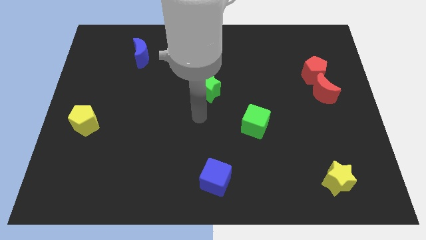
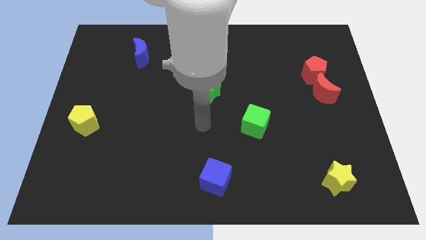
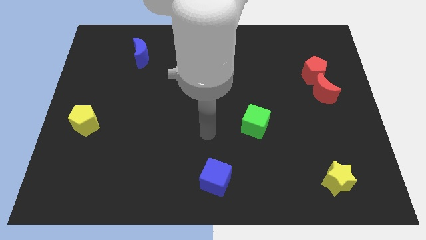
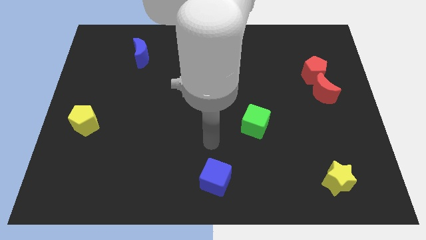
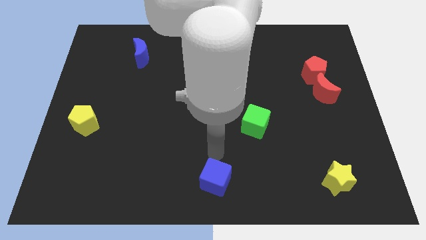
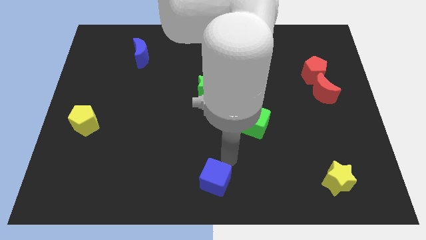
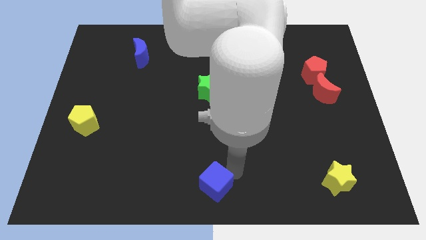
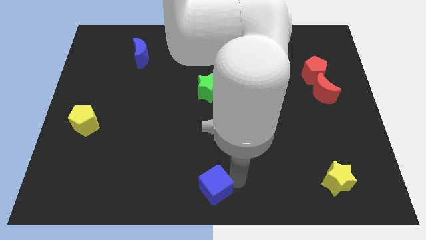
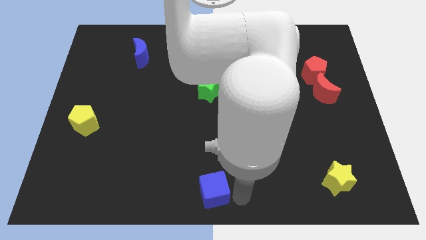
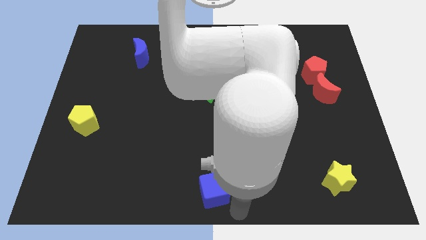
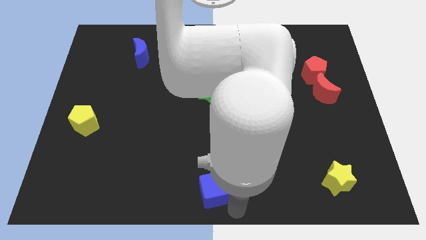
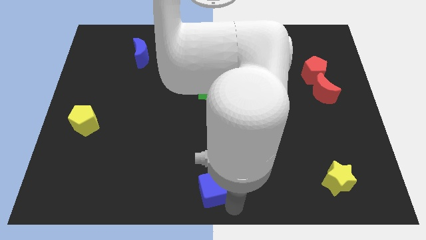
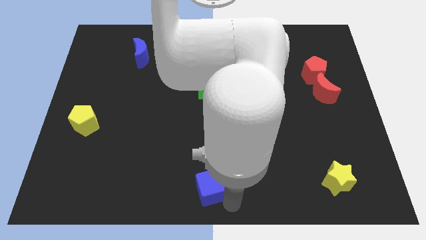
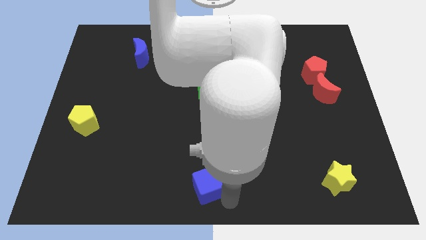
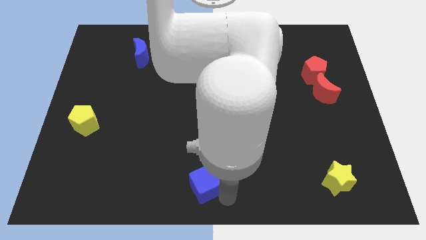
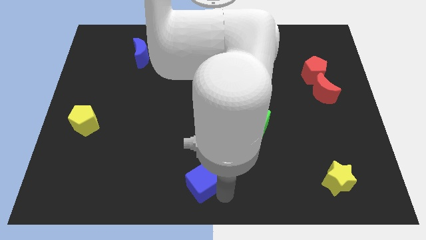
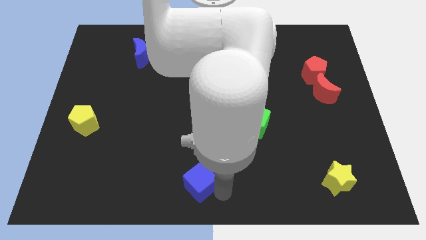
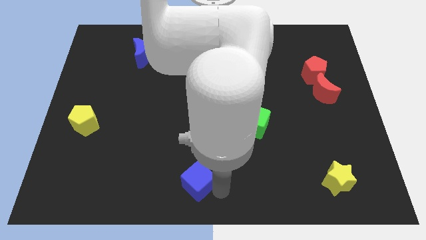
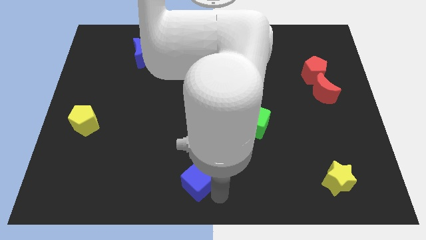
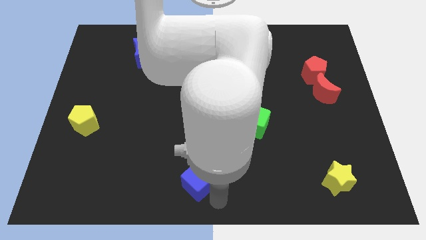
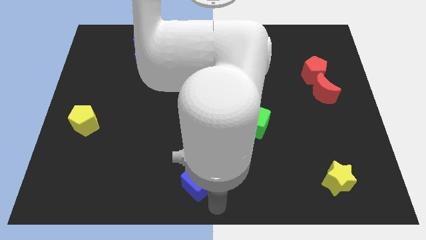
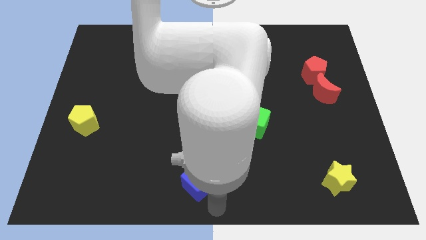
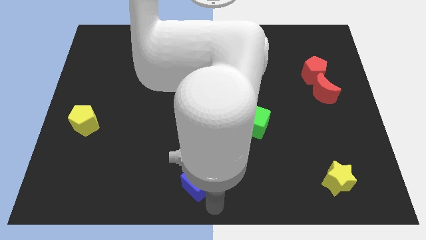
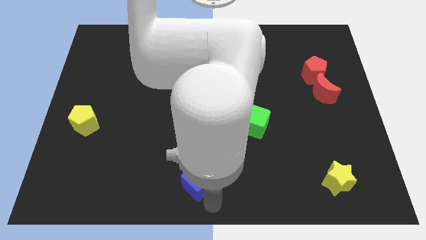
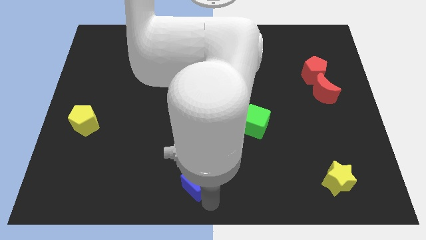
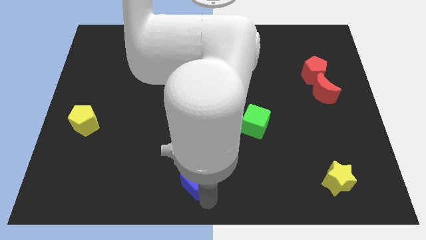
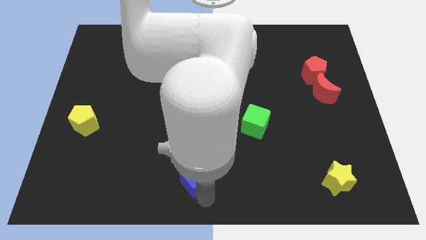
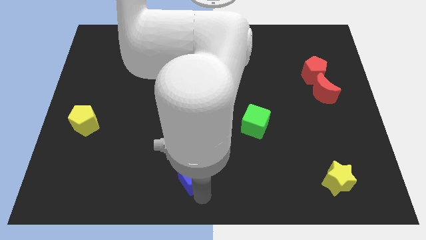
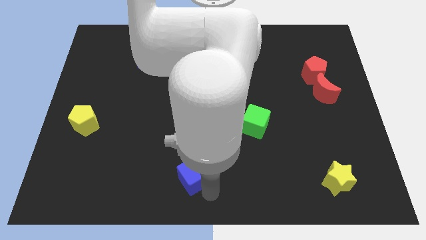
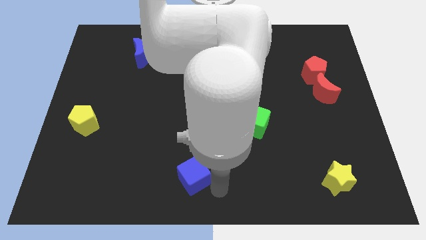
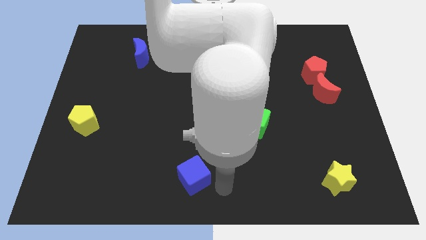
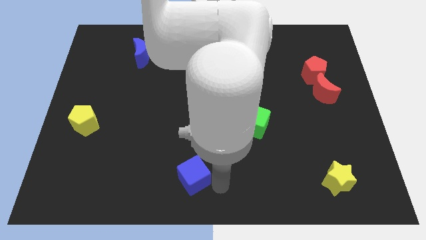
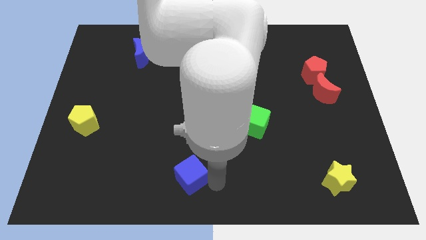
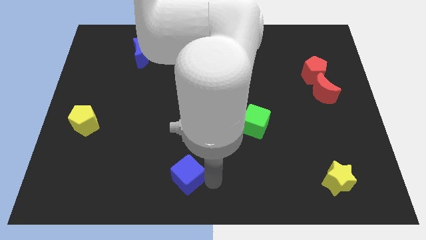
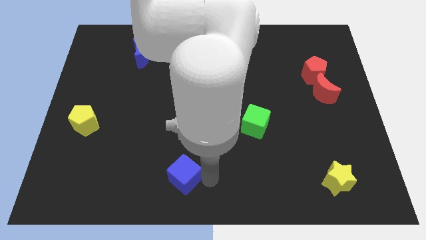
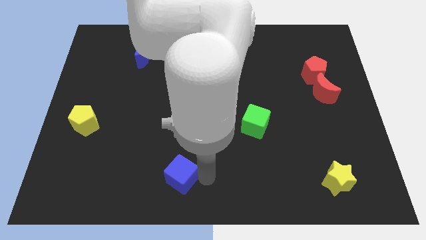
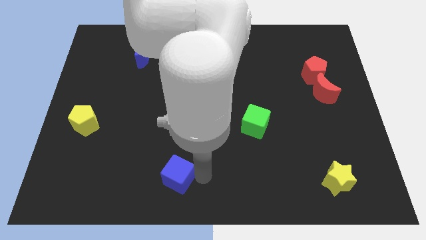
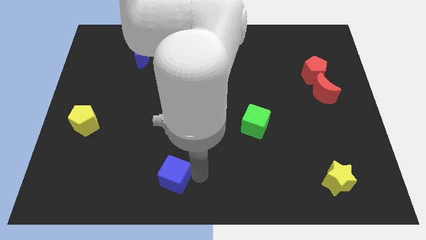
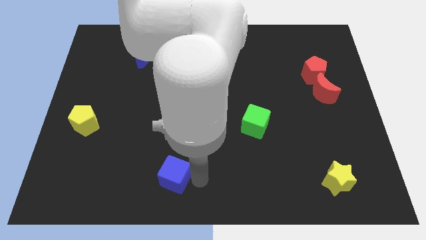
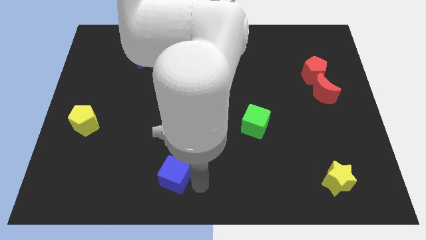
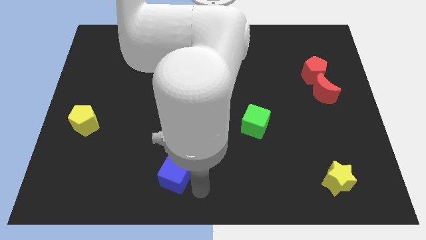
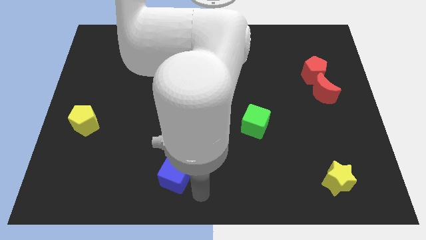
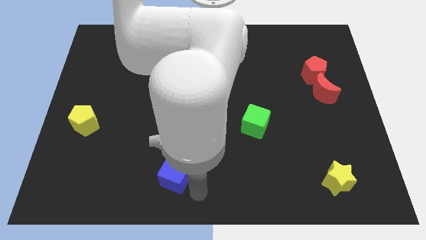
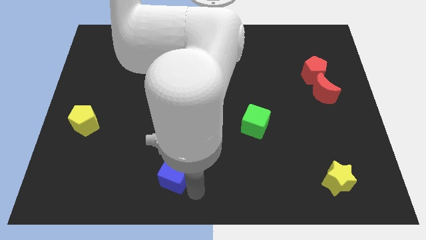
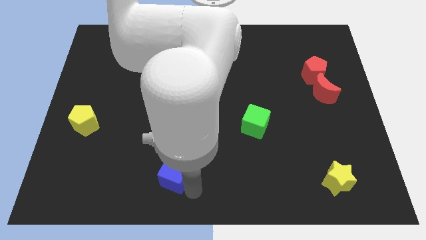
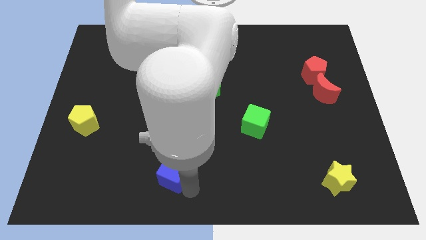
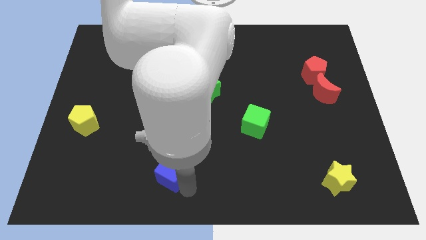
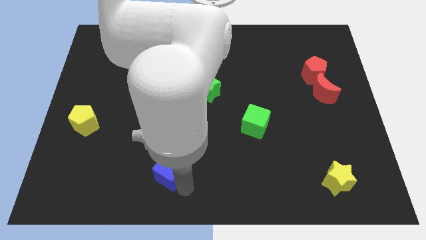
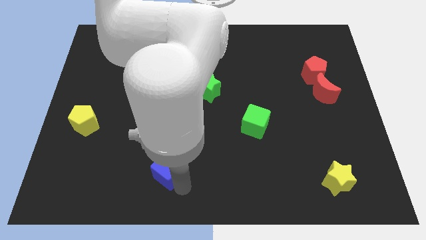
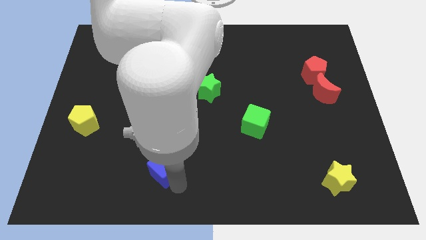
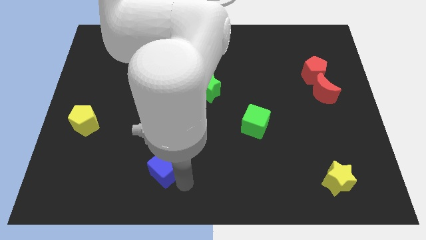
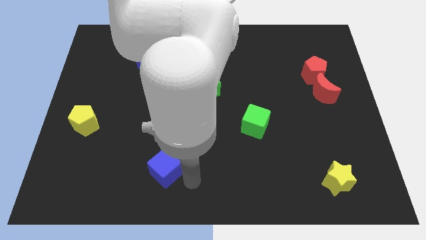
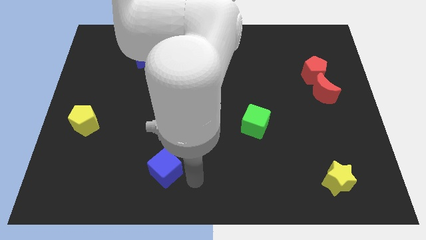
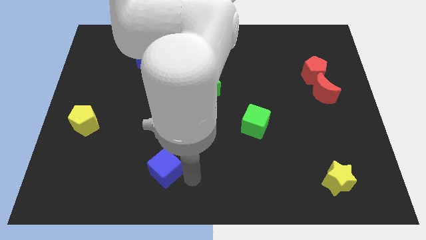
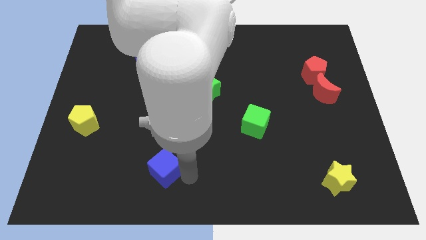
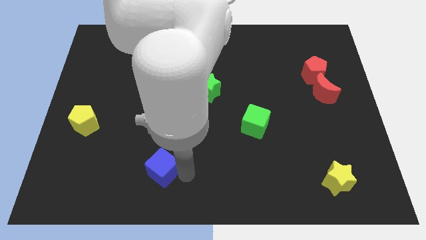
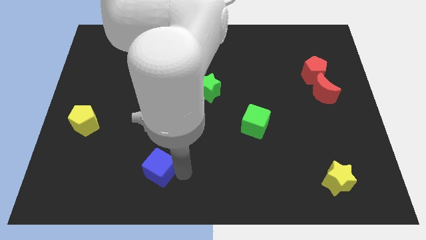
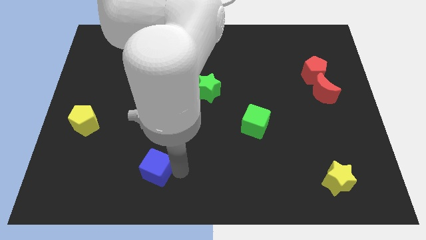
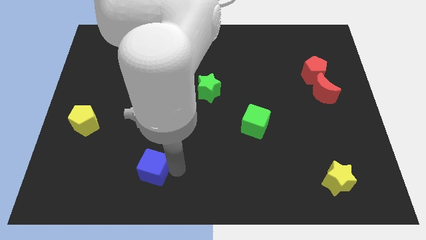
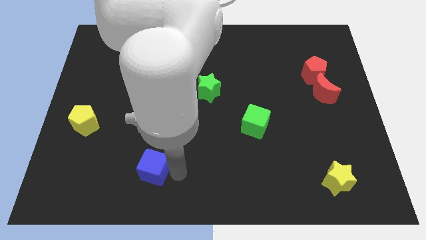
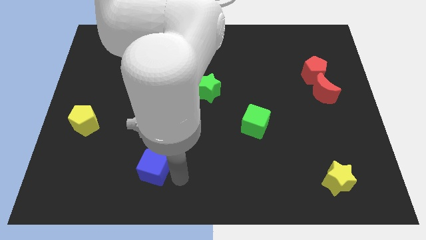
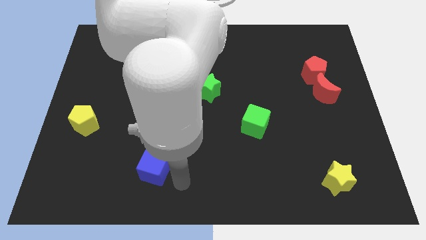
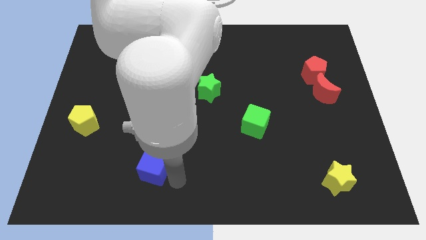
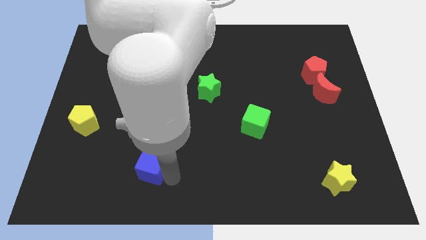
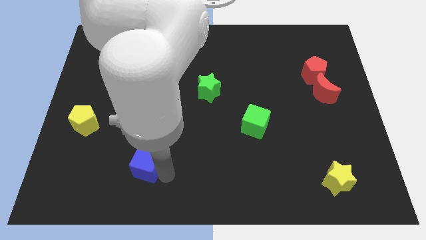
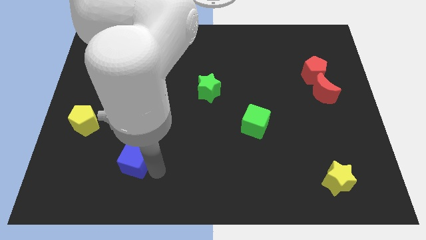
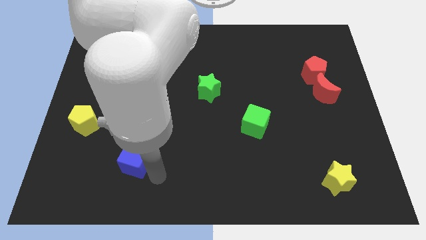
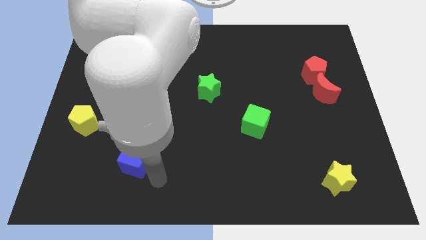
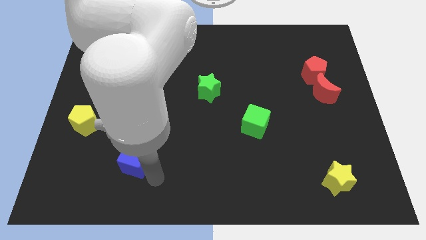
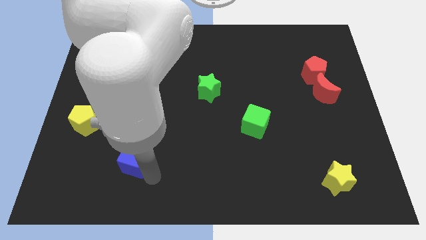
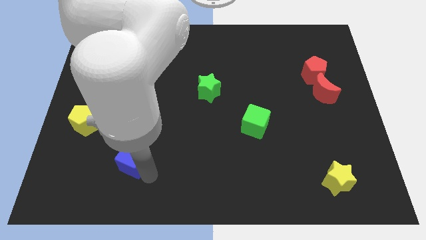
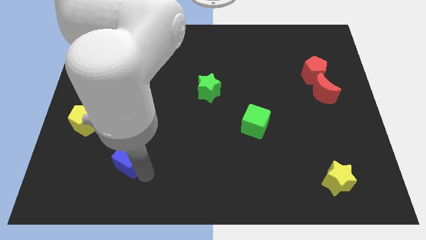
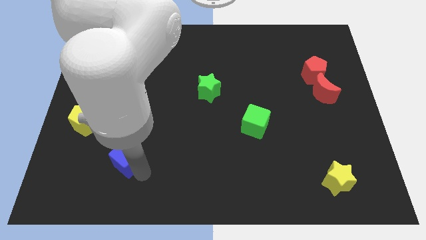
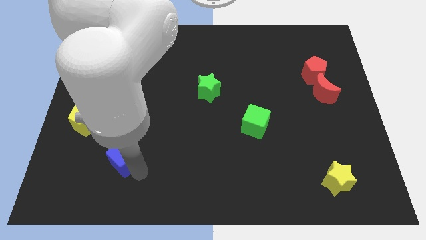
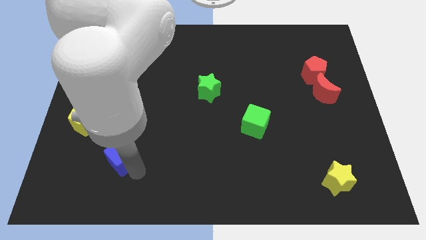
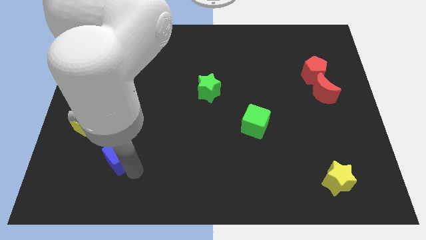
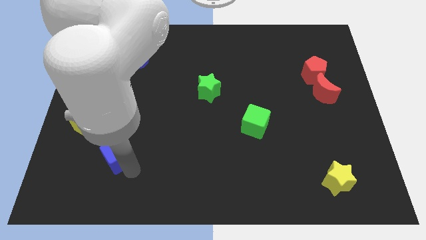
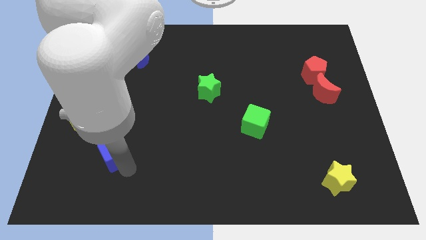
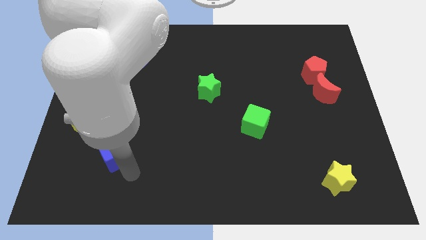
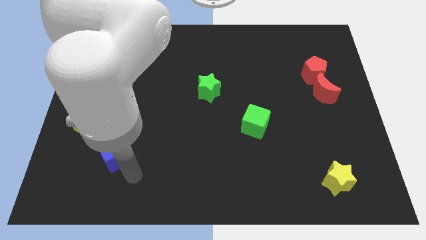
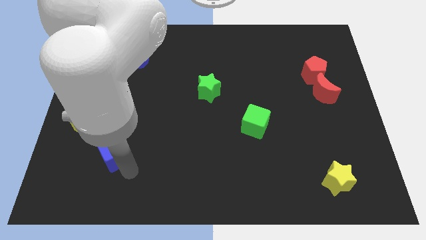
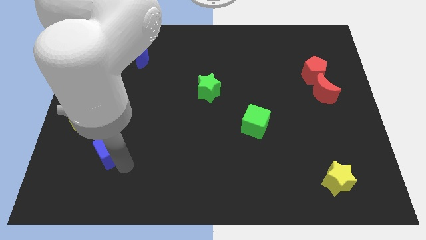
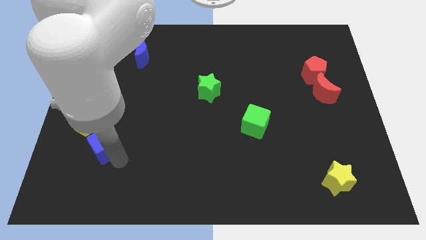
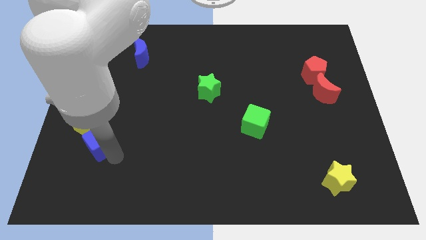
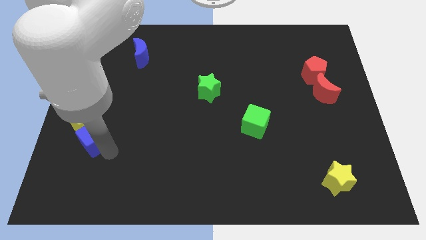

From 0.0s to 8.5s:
push the blue cube to the yellow pentagon
